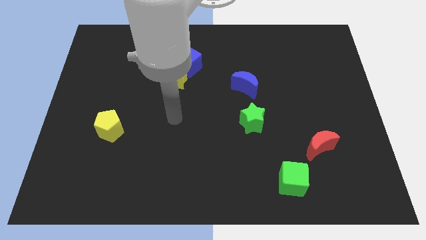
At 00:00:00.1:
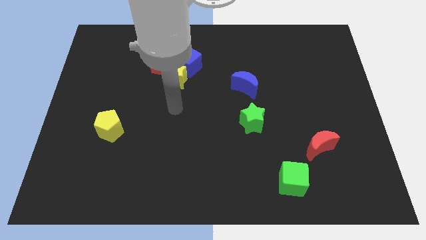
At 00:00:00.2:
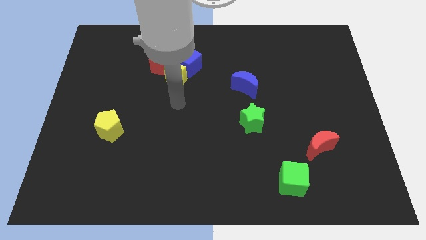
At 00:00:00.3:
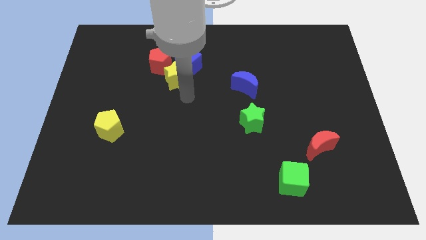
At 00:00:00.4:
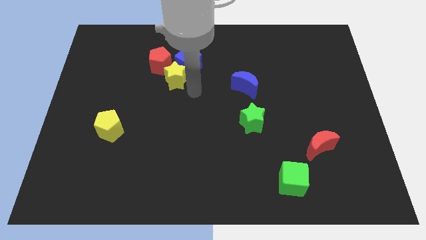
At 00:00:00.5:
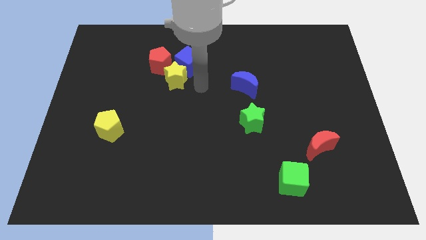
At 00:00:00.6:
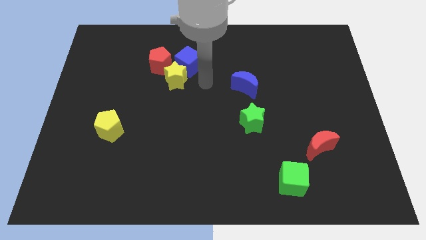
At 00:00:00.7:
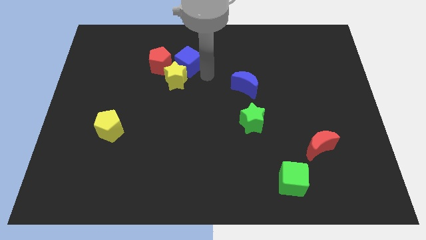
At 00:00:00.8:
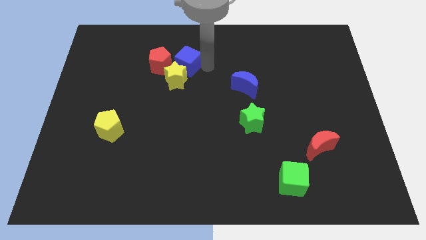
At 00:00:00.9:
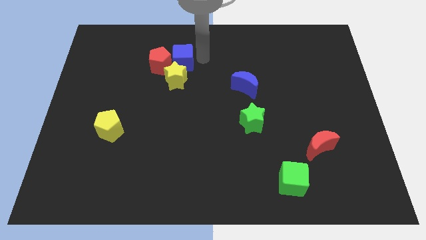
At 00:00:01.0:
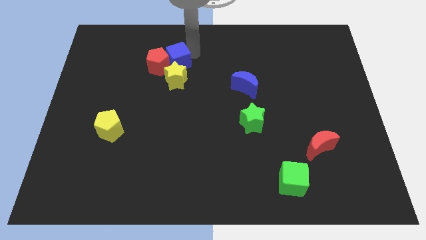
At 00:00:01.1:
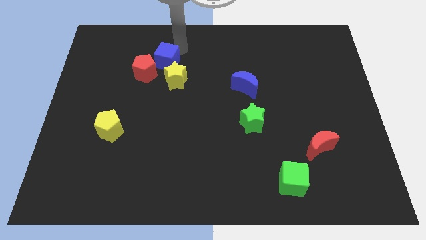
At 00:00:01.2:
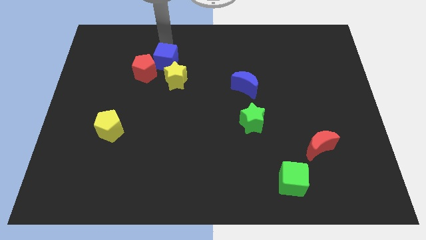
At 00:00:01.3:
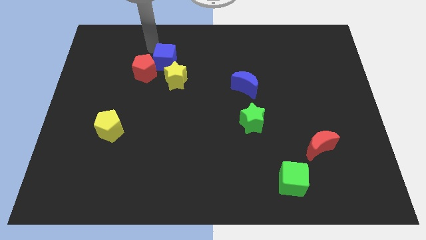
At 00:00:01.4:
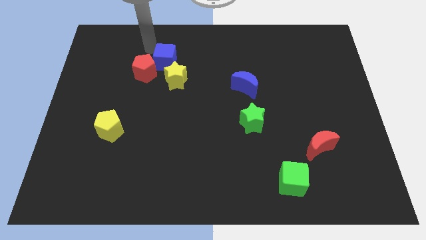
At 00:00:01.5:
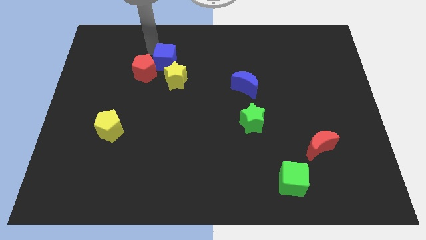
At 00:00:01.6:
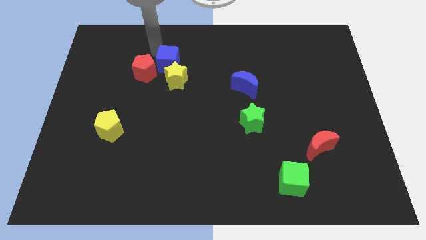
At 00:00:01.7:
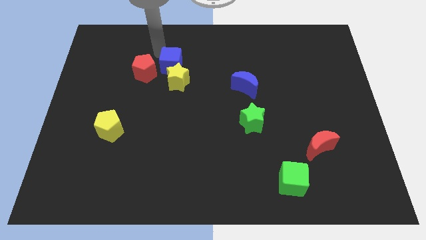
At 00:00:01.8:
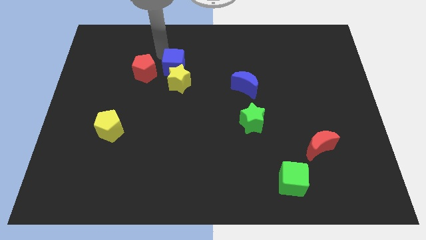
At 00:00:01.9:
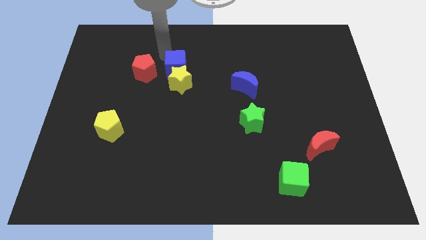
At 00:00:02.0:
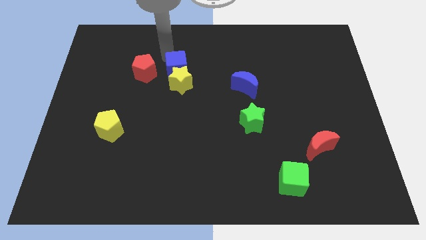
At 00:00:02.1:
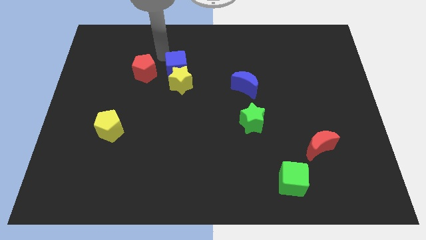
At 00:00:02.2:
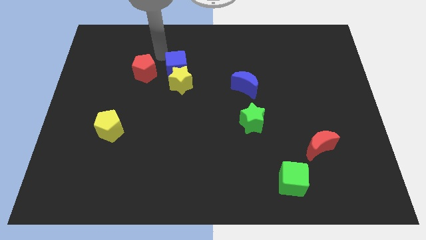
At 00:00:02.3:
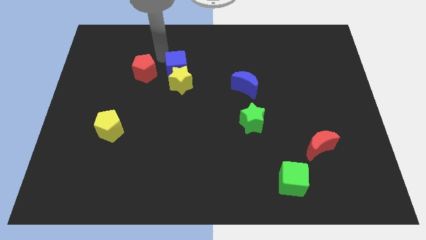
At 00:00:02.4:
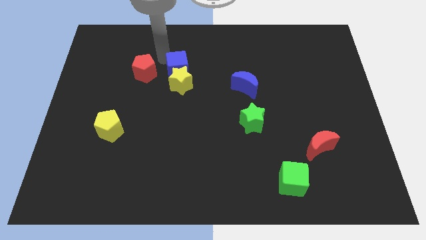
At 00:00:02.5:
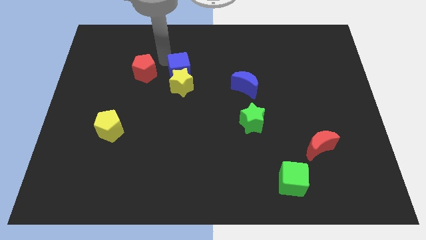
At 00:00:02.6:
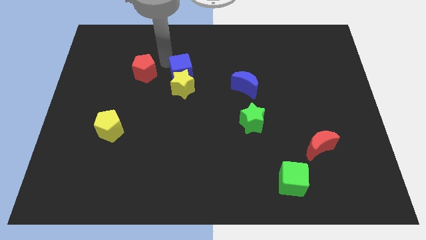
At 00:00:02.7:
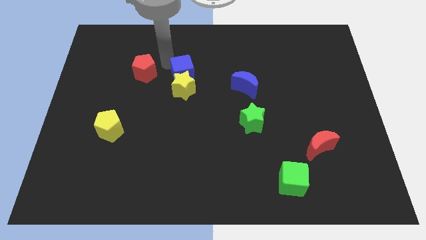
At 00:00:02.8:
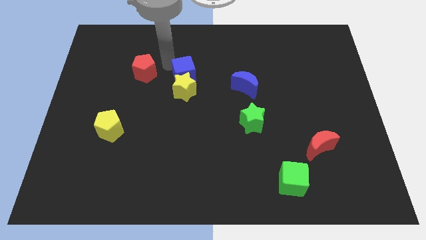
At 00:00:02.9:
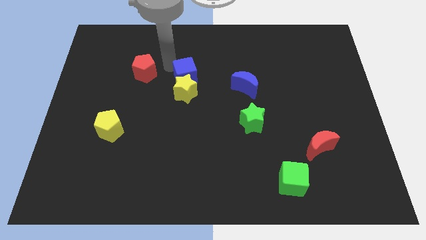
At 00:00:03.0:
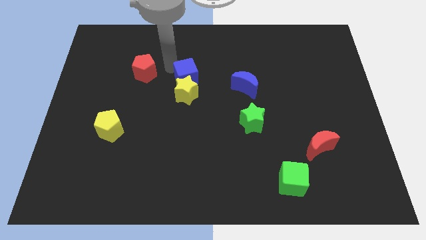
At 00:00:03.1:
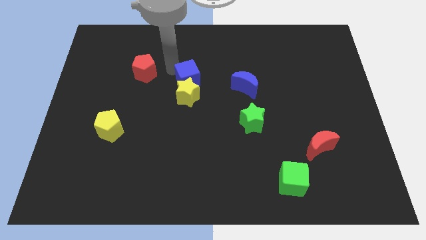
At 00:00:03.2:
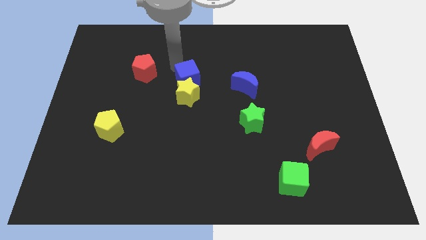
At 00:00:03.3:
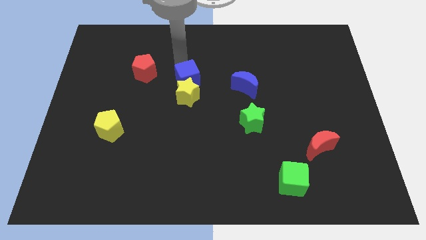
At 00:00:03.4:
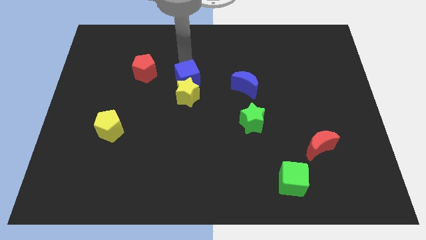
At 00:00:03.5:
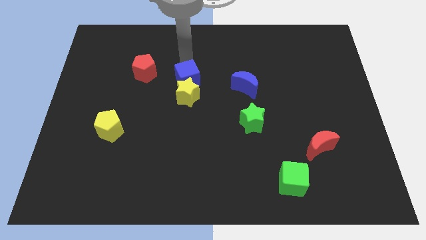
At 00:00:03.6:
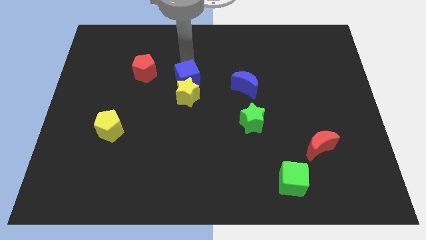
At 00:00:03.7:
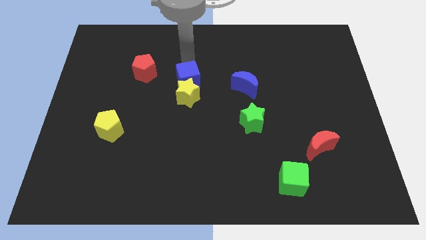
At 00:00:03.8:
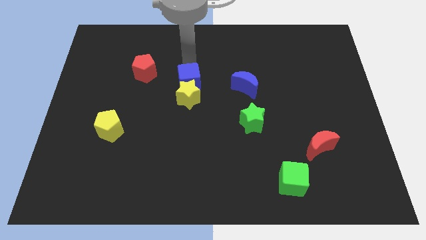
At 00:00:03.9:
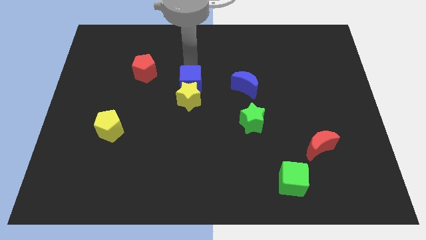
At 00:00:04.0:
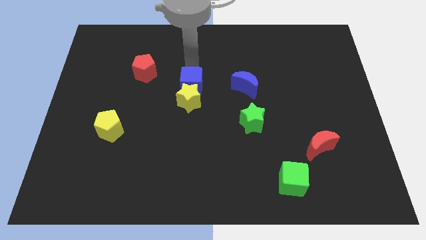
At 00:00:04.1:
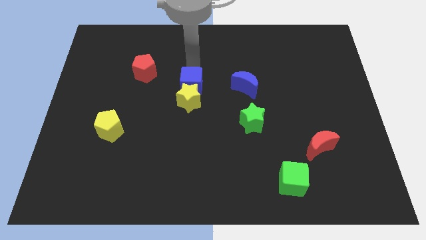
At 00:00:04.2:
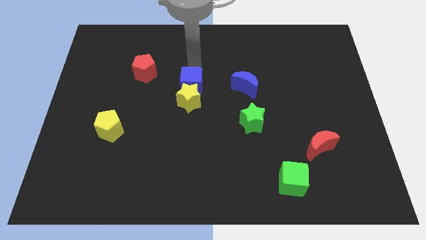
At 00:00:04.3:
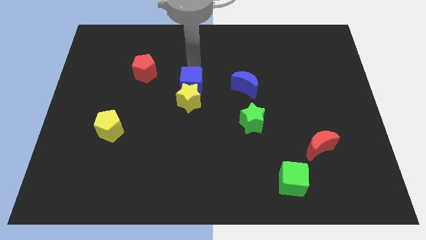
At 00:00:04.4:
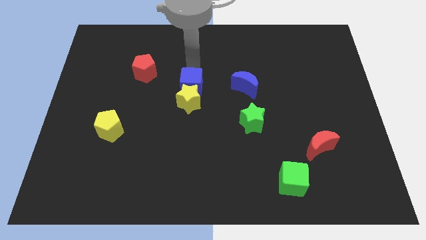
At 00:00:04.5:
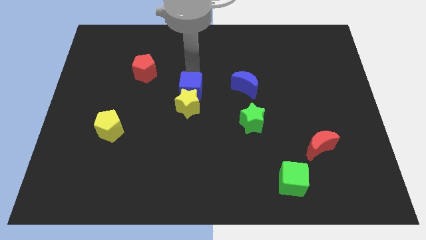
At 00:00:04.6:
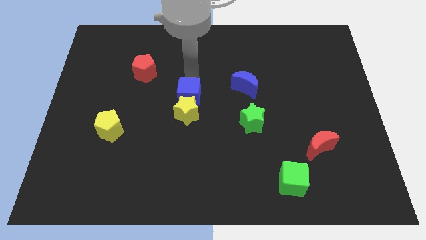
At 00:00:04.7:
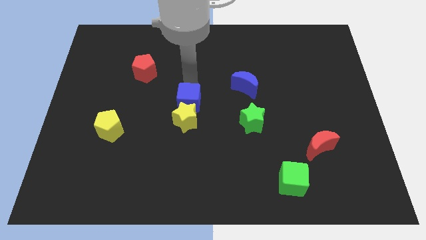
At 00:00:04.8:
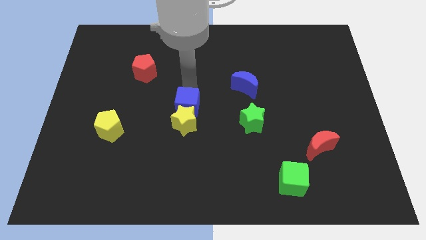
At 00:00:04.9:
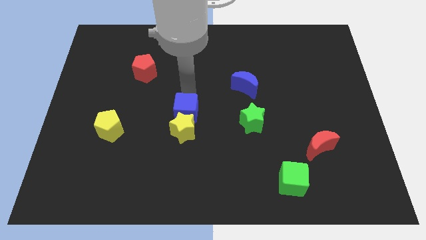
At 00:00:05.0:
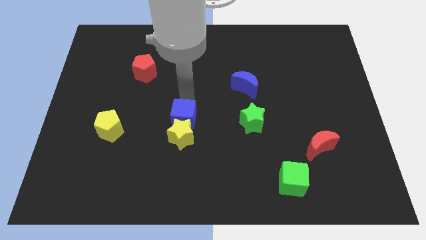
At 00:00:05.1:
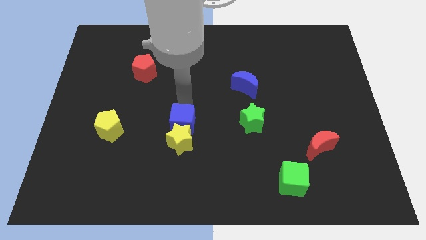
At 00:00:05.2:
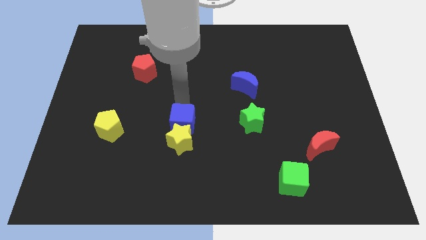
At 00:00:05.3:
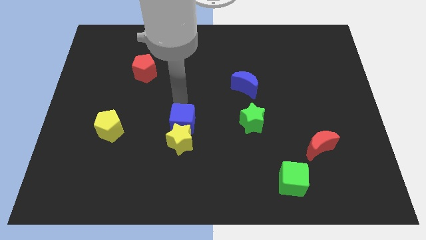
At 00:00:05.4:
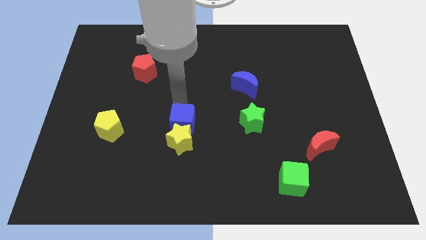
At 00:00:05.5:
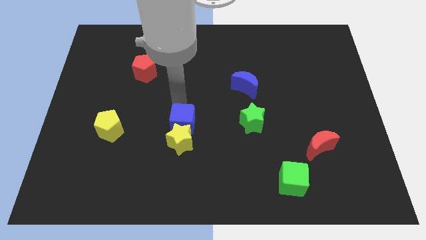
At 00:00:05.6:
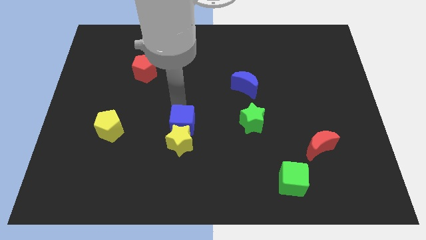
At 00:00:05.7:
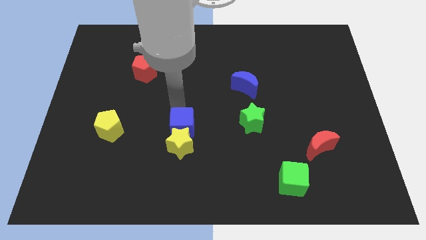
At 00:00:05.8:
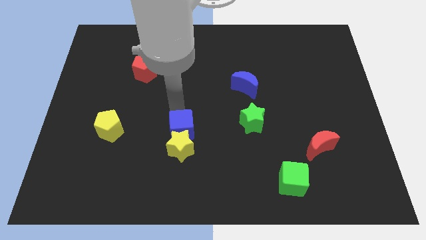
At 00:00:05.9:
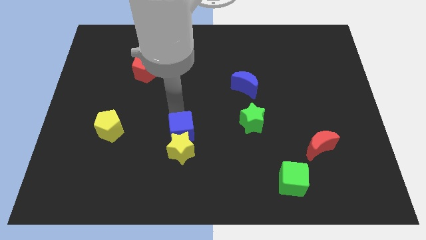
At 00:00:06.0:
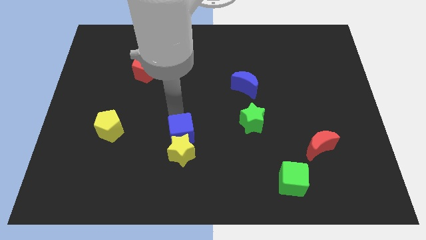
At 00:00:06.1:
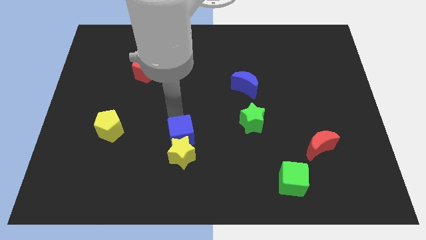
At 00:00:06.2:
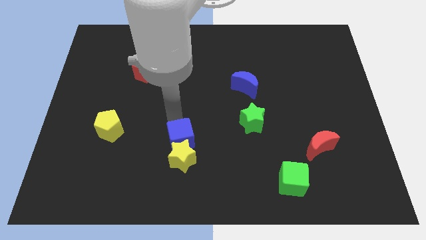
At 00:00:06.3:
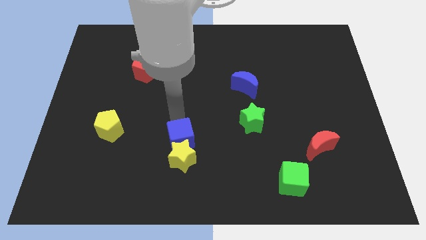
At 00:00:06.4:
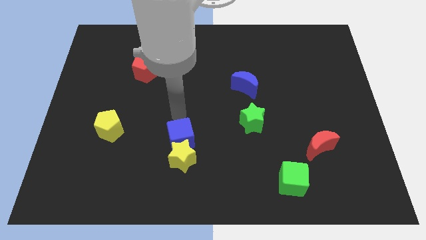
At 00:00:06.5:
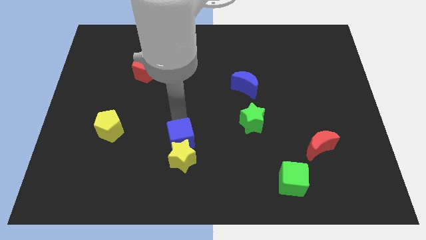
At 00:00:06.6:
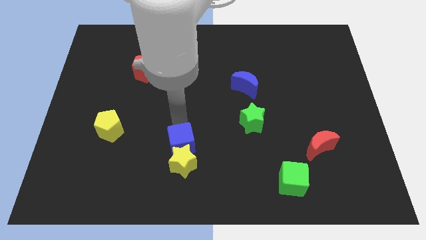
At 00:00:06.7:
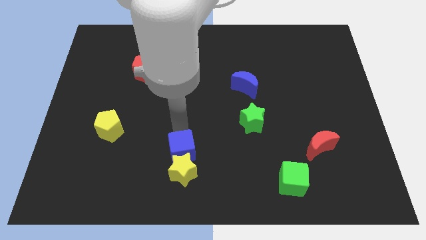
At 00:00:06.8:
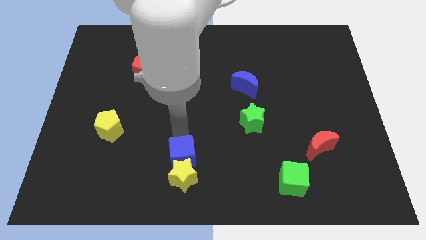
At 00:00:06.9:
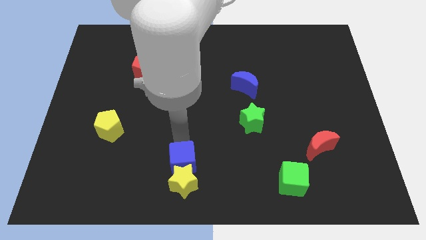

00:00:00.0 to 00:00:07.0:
move the blue cube to the bottom side

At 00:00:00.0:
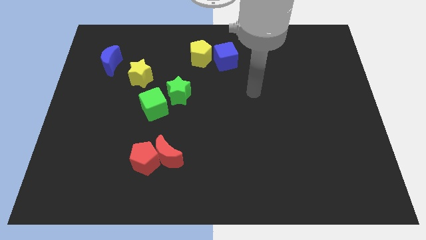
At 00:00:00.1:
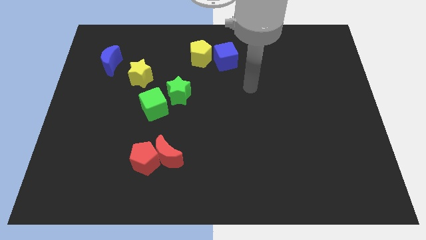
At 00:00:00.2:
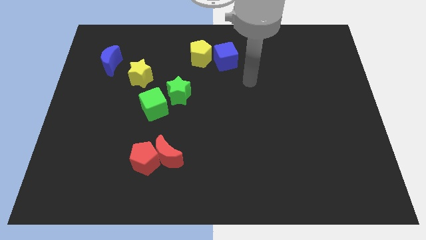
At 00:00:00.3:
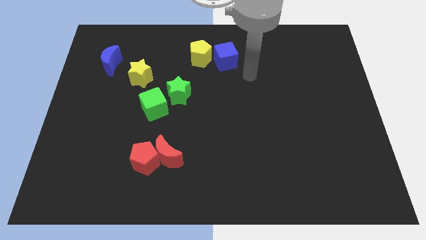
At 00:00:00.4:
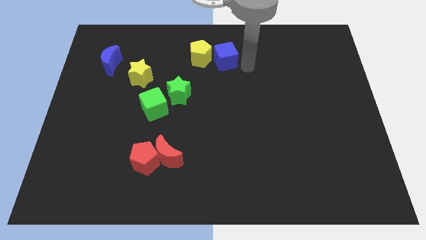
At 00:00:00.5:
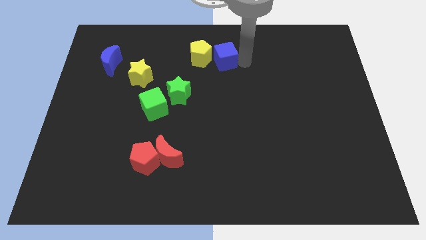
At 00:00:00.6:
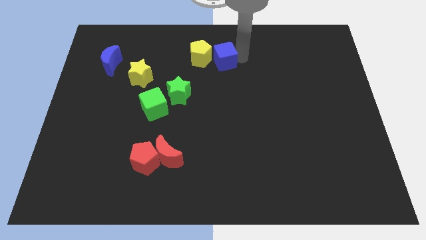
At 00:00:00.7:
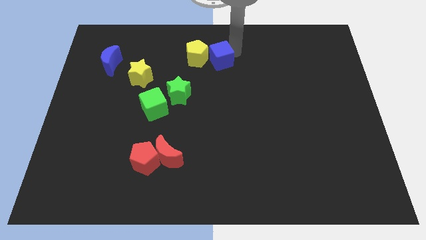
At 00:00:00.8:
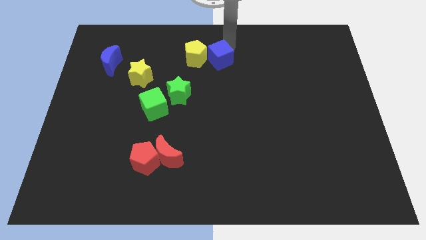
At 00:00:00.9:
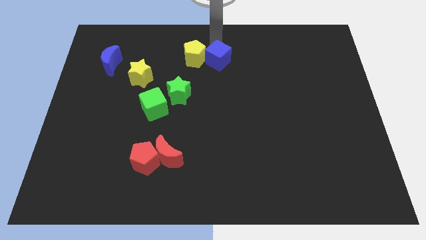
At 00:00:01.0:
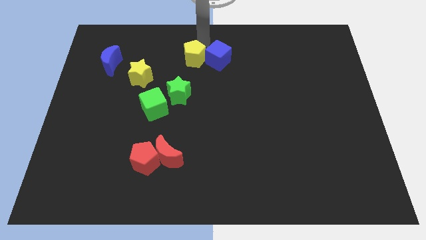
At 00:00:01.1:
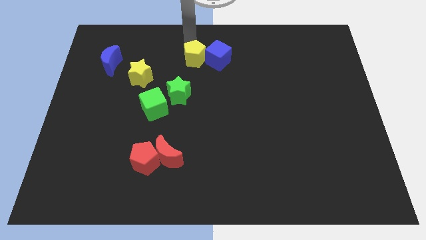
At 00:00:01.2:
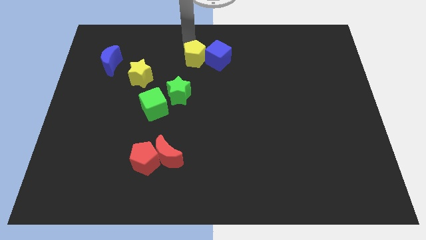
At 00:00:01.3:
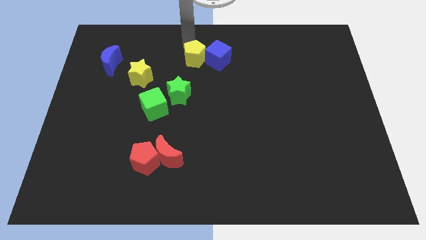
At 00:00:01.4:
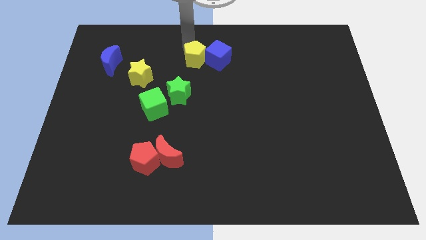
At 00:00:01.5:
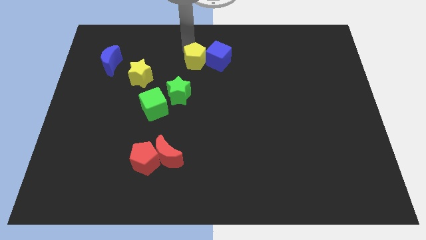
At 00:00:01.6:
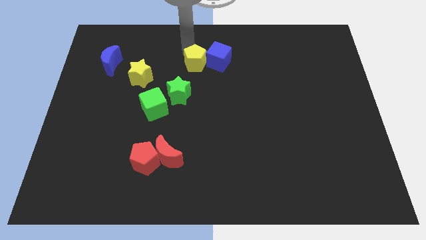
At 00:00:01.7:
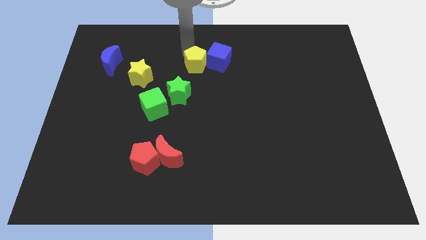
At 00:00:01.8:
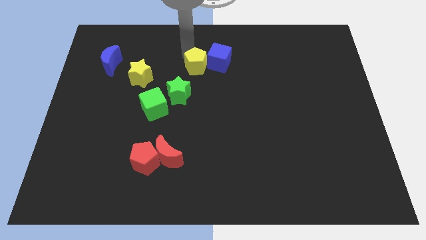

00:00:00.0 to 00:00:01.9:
push the yellow pentagon to the middle of the board
